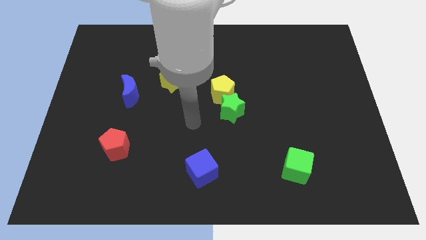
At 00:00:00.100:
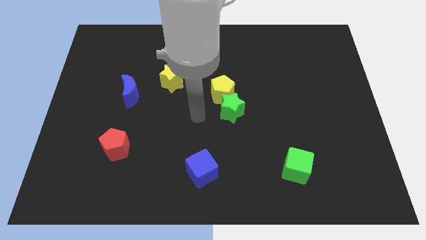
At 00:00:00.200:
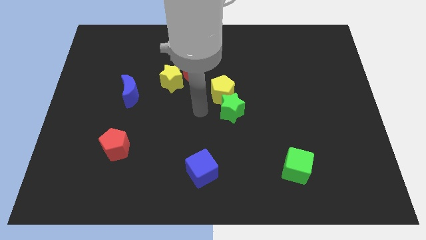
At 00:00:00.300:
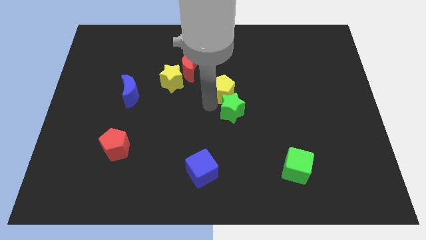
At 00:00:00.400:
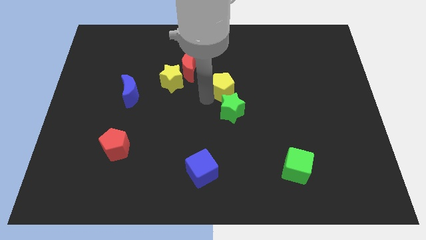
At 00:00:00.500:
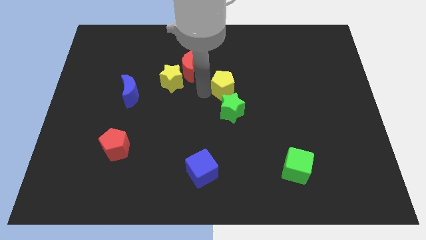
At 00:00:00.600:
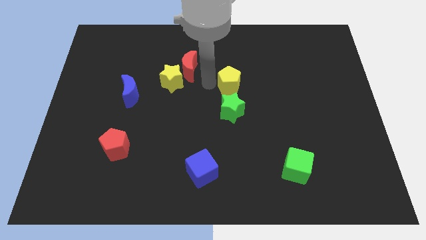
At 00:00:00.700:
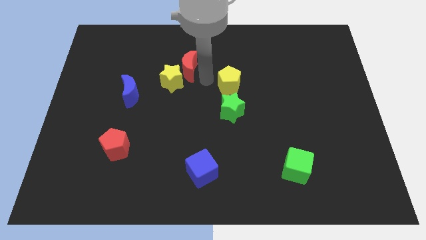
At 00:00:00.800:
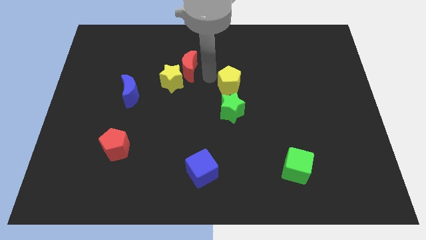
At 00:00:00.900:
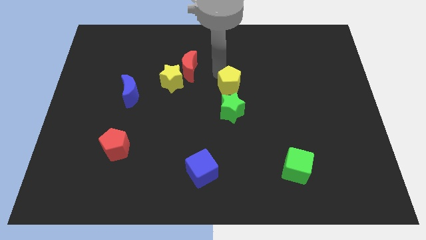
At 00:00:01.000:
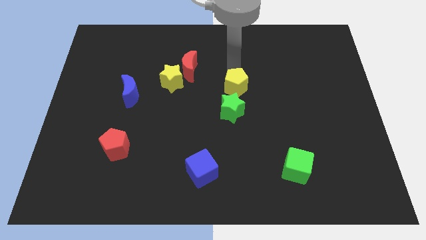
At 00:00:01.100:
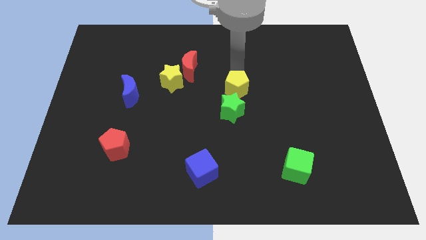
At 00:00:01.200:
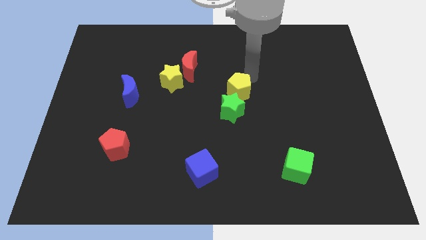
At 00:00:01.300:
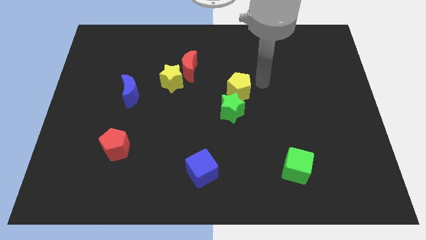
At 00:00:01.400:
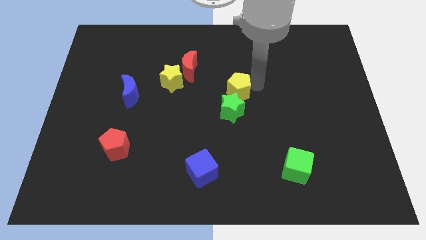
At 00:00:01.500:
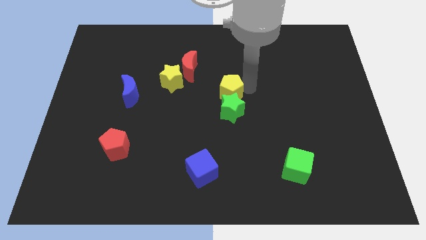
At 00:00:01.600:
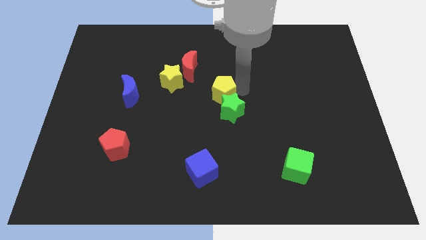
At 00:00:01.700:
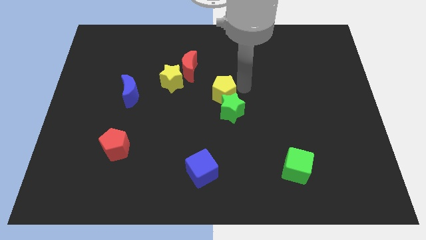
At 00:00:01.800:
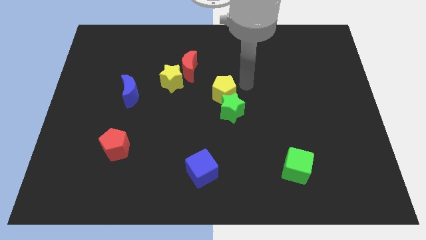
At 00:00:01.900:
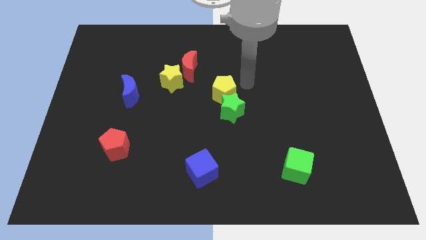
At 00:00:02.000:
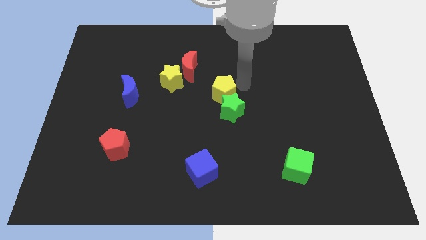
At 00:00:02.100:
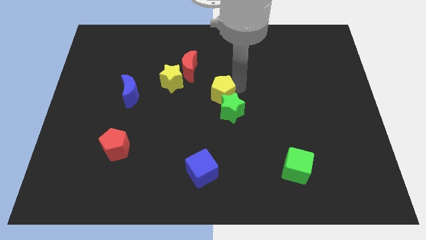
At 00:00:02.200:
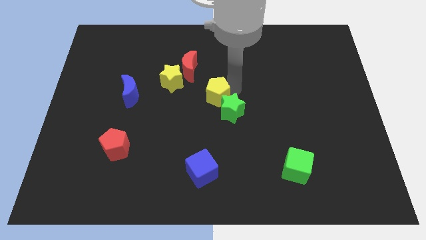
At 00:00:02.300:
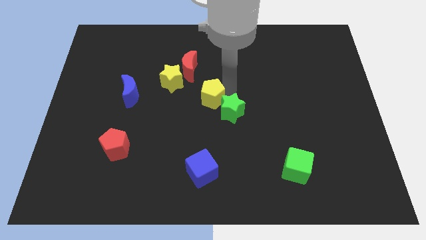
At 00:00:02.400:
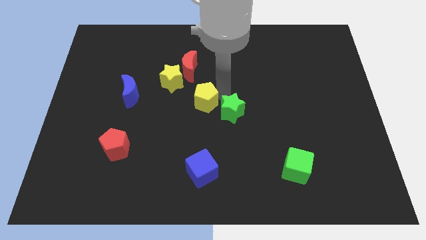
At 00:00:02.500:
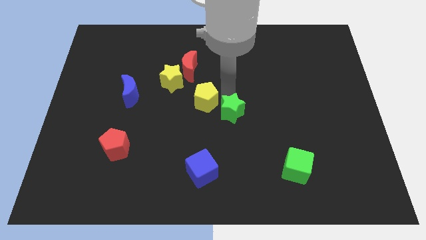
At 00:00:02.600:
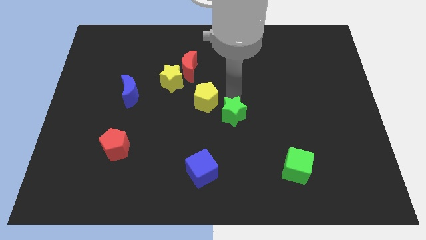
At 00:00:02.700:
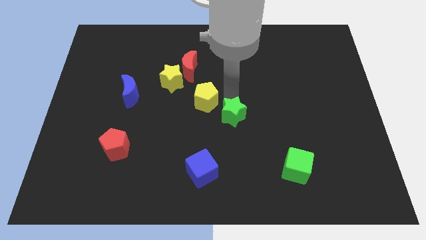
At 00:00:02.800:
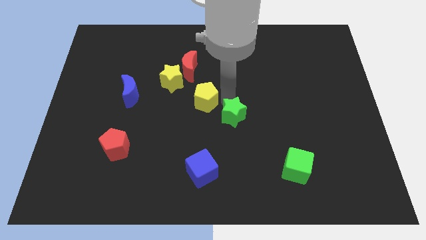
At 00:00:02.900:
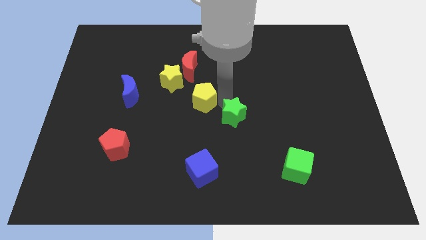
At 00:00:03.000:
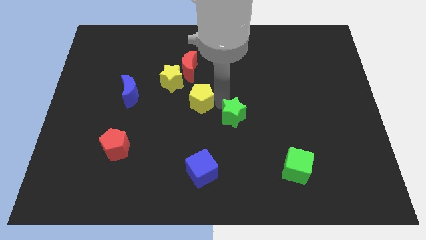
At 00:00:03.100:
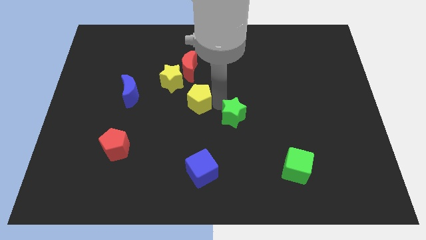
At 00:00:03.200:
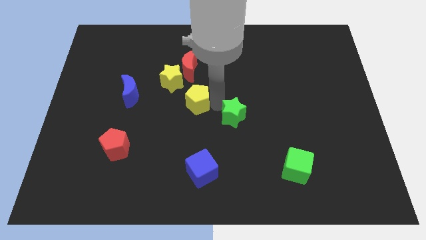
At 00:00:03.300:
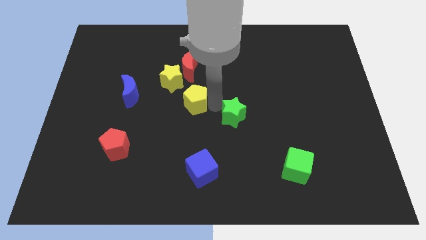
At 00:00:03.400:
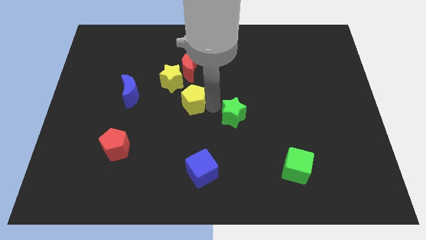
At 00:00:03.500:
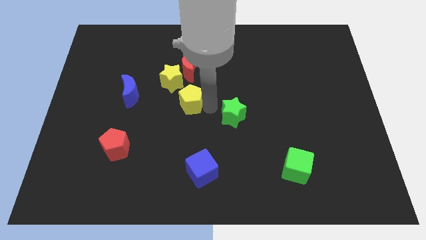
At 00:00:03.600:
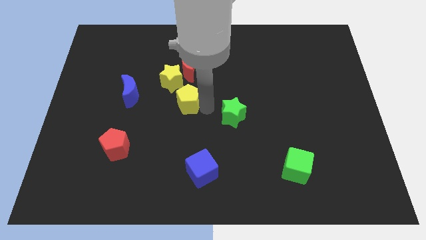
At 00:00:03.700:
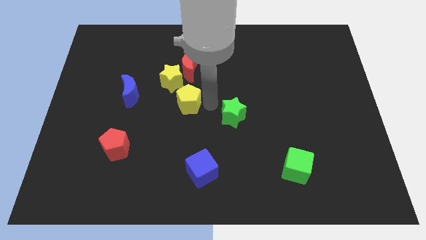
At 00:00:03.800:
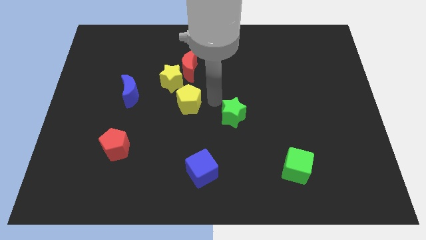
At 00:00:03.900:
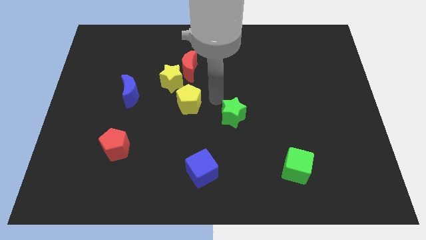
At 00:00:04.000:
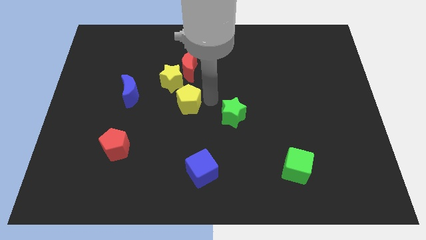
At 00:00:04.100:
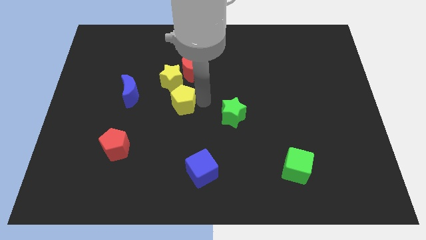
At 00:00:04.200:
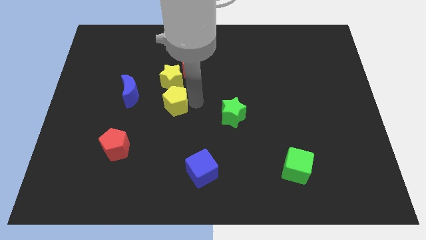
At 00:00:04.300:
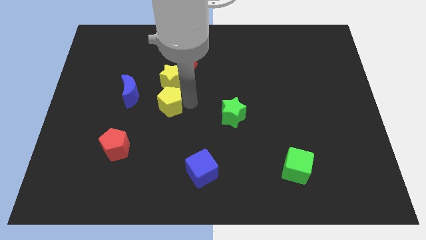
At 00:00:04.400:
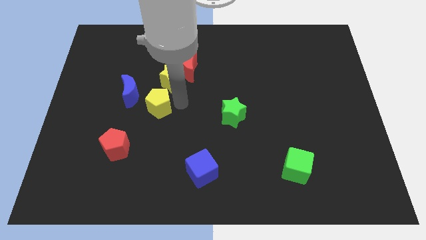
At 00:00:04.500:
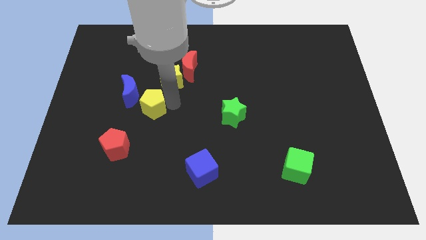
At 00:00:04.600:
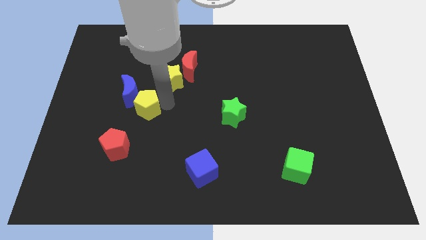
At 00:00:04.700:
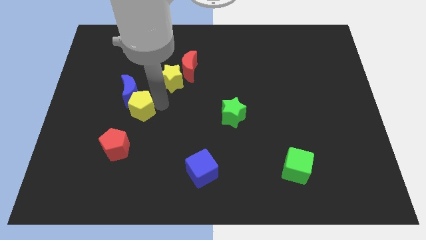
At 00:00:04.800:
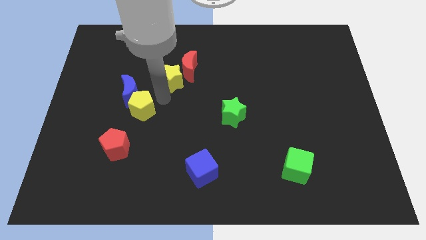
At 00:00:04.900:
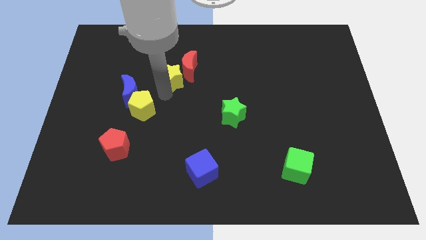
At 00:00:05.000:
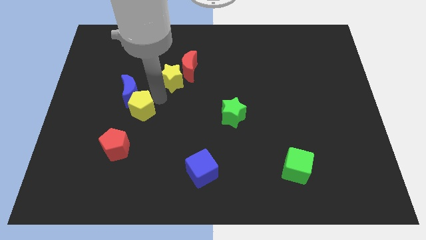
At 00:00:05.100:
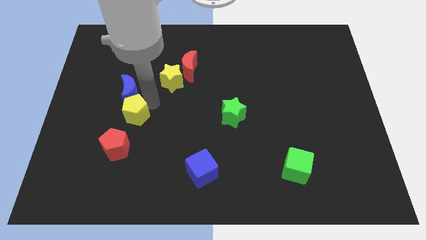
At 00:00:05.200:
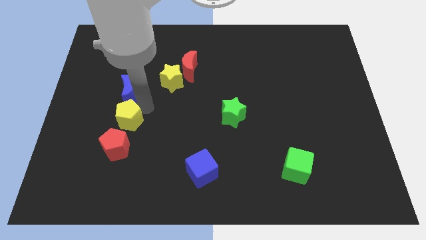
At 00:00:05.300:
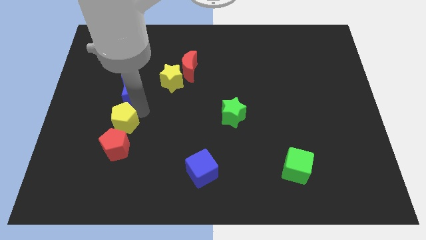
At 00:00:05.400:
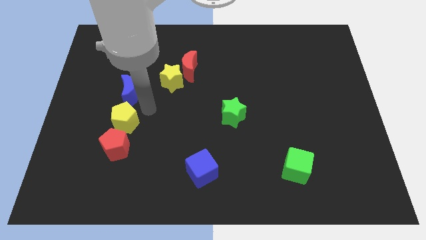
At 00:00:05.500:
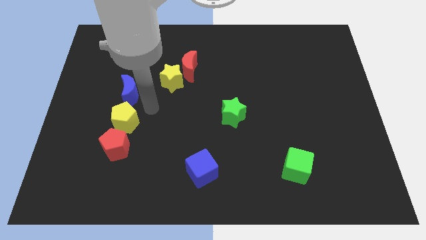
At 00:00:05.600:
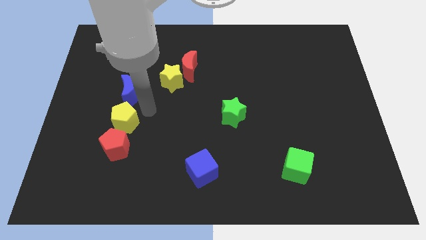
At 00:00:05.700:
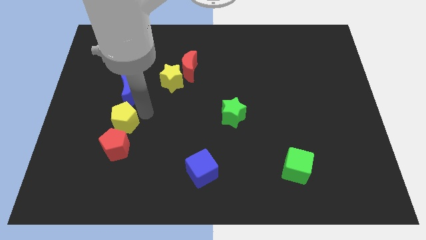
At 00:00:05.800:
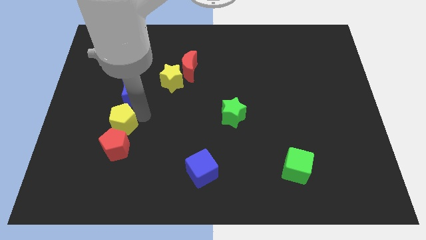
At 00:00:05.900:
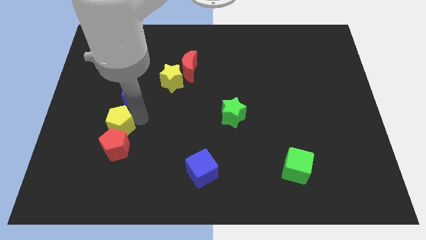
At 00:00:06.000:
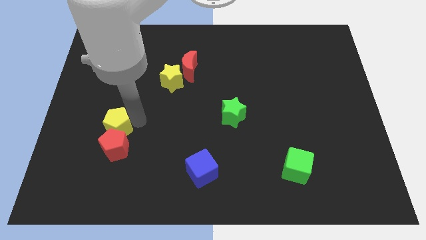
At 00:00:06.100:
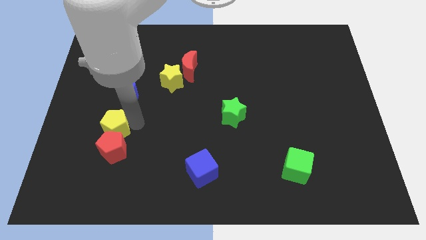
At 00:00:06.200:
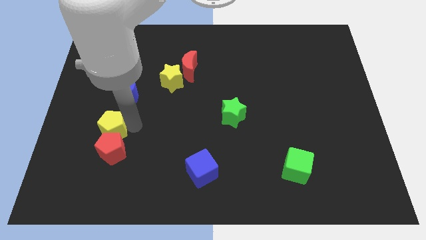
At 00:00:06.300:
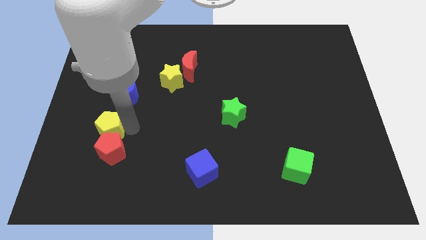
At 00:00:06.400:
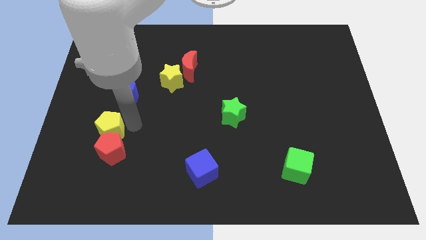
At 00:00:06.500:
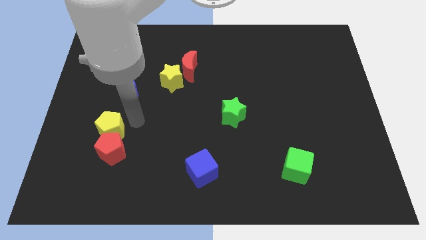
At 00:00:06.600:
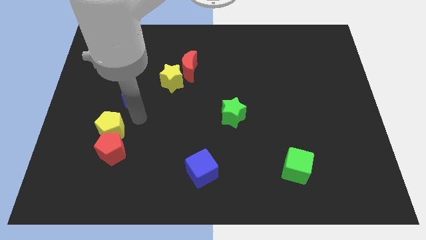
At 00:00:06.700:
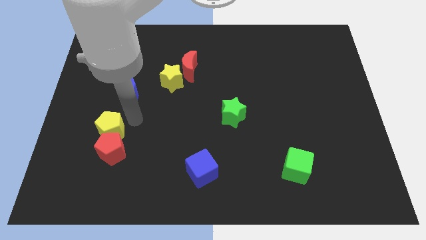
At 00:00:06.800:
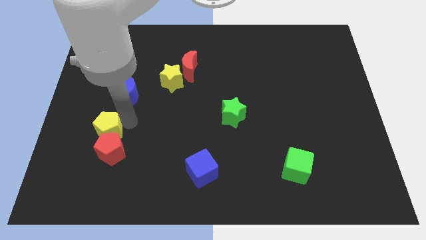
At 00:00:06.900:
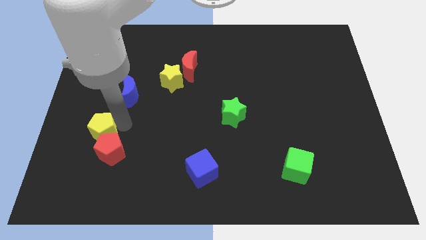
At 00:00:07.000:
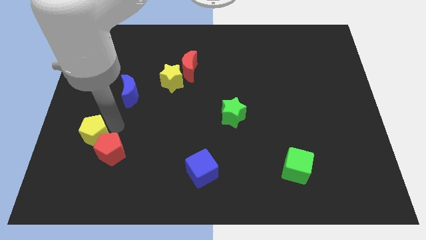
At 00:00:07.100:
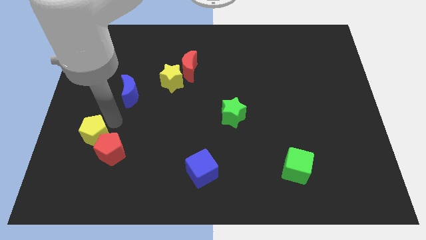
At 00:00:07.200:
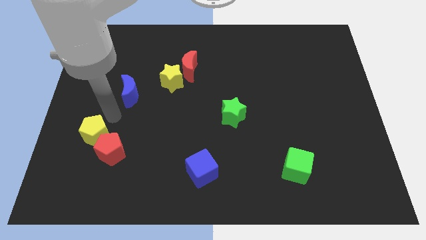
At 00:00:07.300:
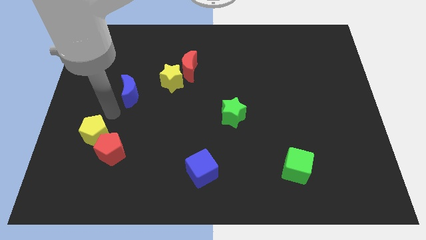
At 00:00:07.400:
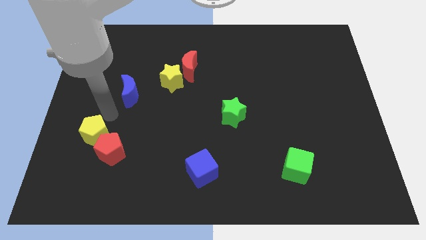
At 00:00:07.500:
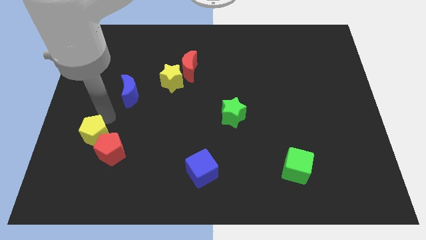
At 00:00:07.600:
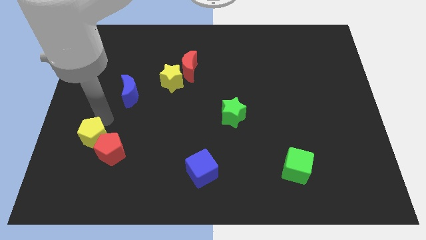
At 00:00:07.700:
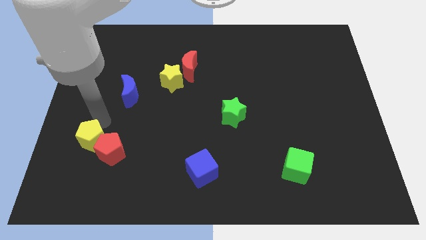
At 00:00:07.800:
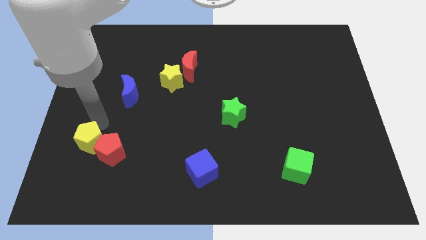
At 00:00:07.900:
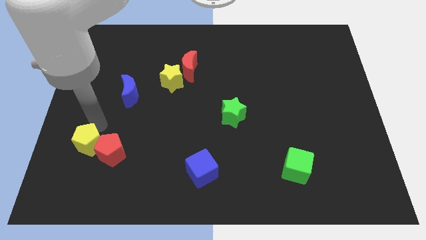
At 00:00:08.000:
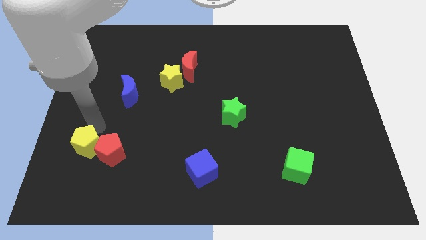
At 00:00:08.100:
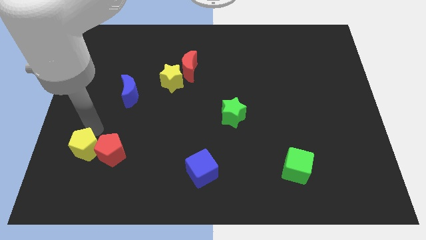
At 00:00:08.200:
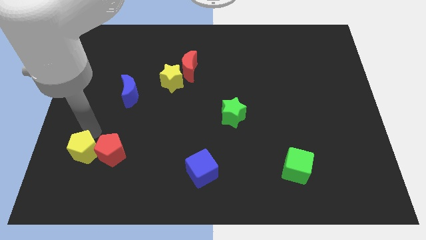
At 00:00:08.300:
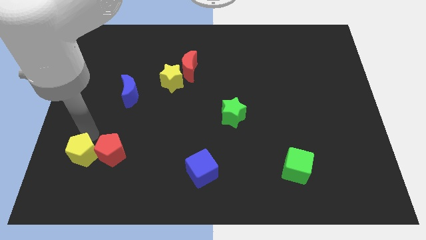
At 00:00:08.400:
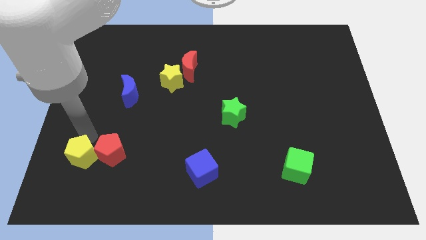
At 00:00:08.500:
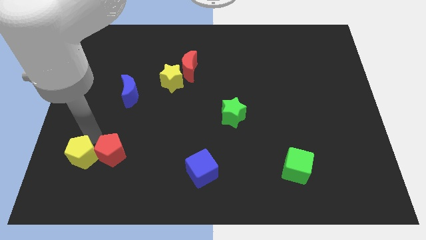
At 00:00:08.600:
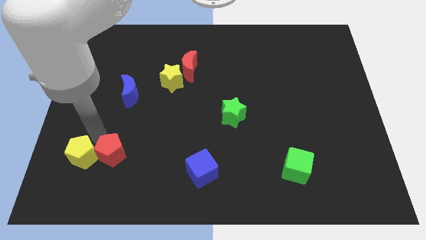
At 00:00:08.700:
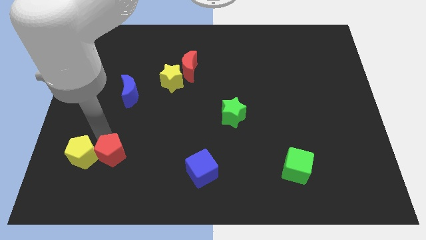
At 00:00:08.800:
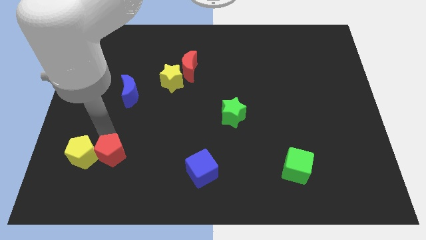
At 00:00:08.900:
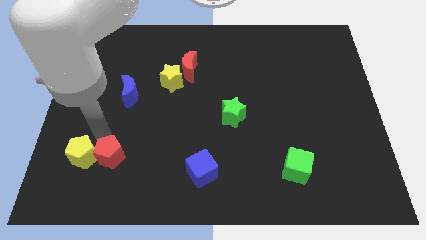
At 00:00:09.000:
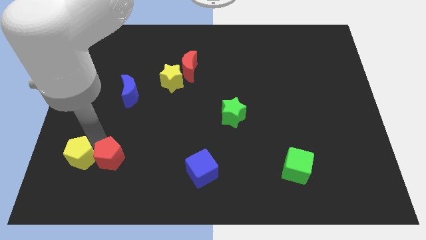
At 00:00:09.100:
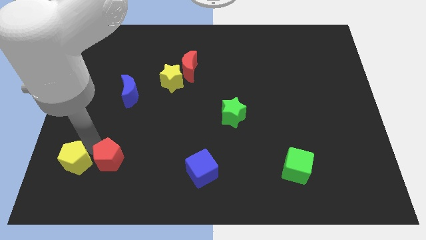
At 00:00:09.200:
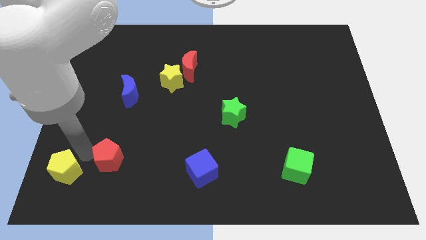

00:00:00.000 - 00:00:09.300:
move the yellow pentagon to the lower left corner
